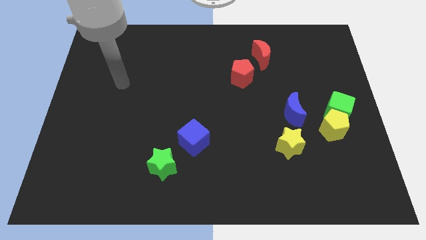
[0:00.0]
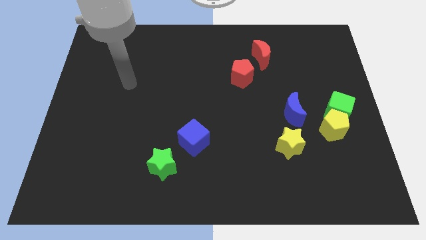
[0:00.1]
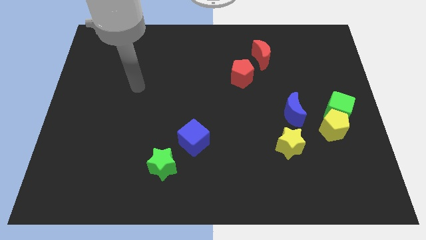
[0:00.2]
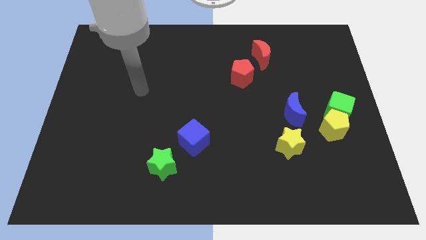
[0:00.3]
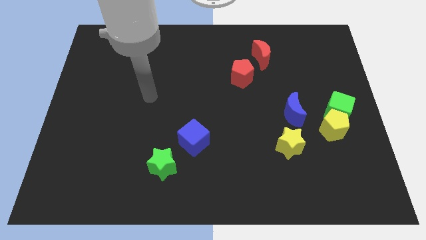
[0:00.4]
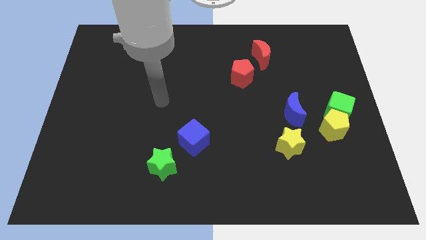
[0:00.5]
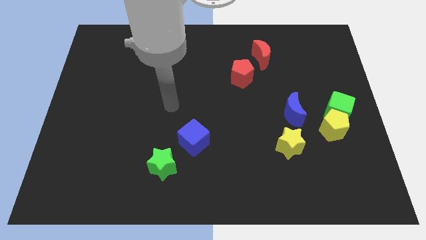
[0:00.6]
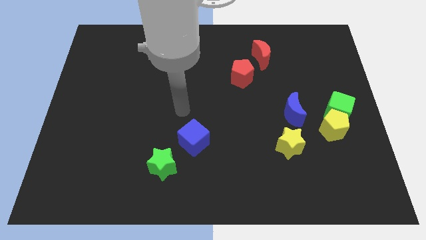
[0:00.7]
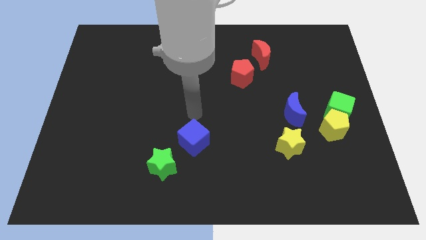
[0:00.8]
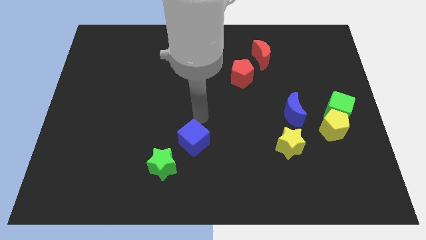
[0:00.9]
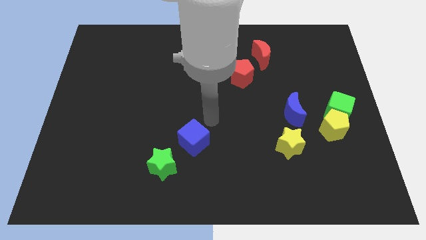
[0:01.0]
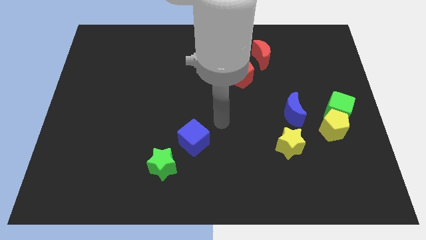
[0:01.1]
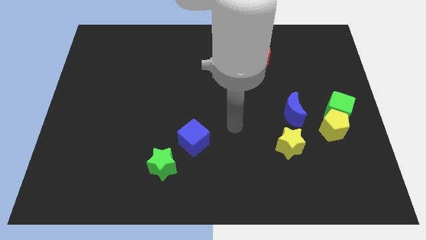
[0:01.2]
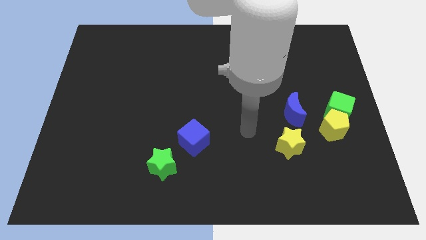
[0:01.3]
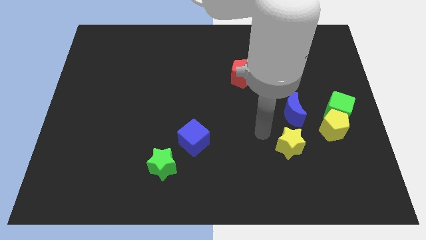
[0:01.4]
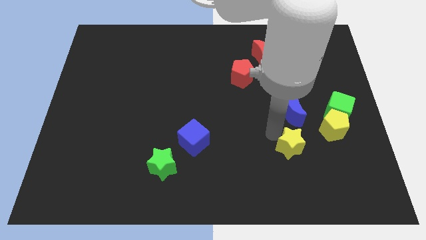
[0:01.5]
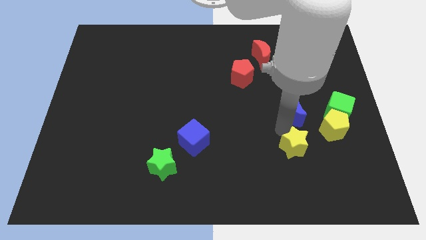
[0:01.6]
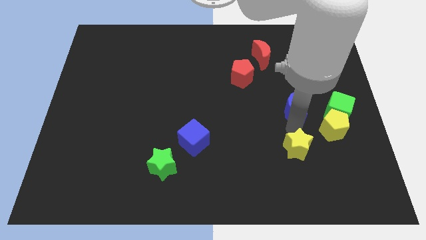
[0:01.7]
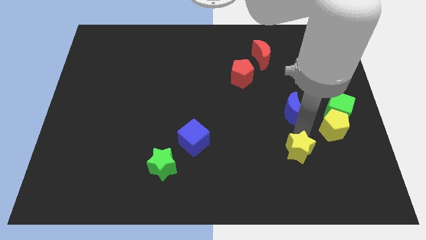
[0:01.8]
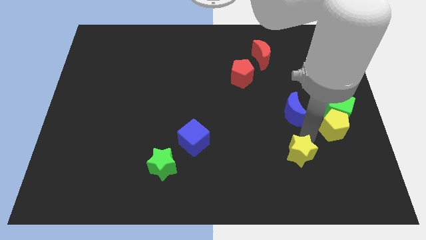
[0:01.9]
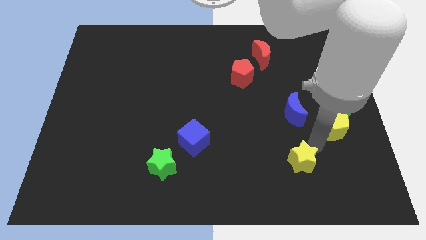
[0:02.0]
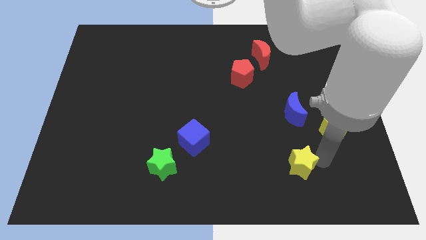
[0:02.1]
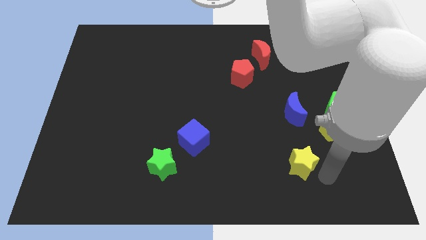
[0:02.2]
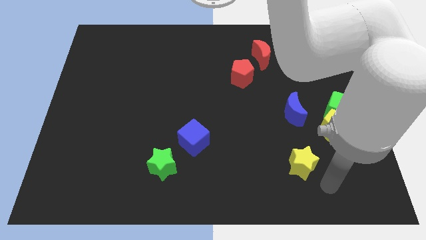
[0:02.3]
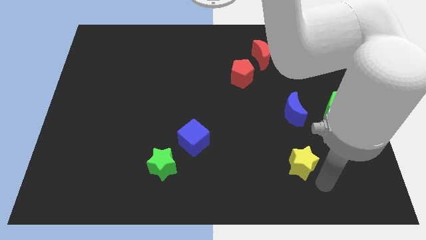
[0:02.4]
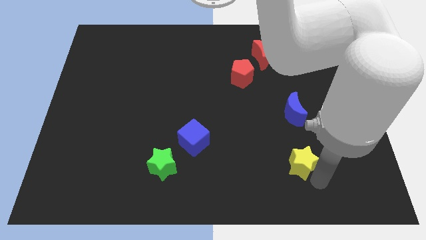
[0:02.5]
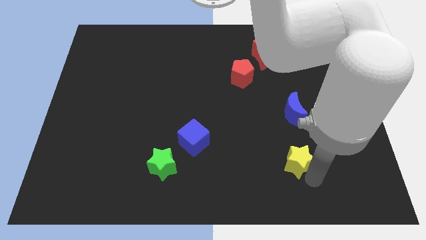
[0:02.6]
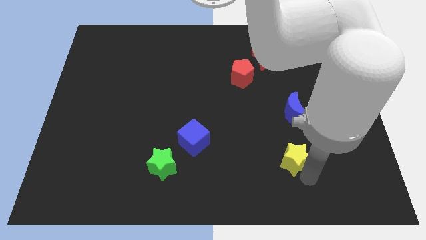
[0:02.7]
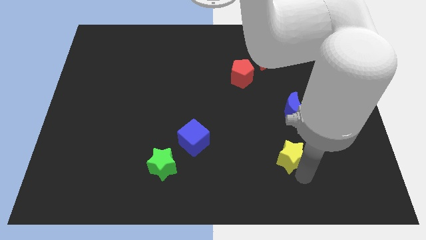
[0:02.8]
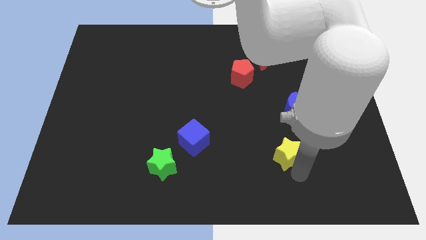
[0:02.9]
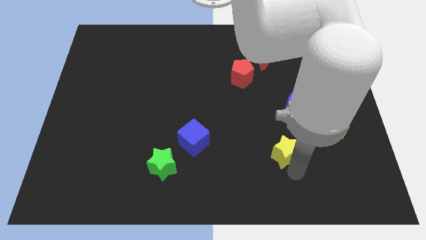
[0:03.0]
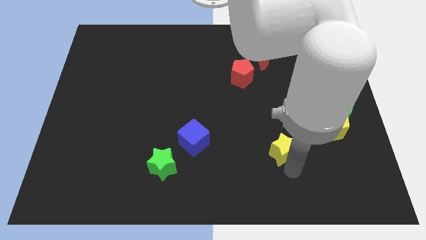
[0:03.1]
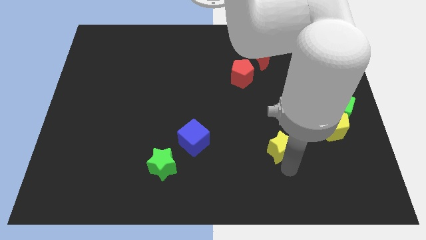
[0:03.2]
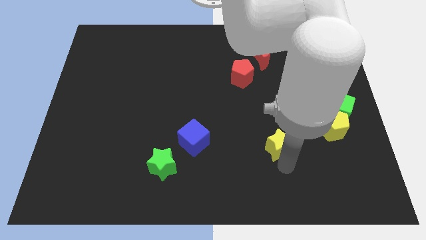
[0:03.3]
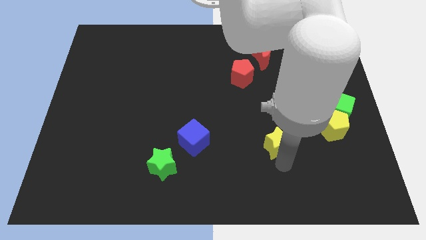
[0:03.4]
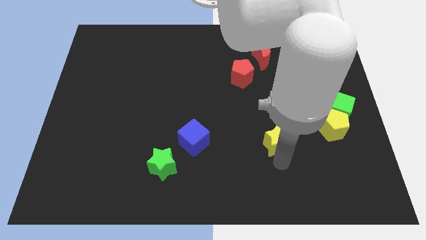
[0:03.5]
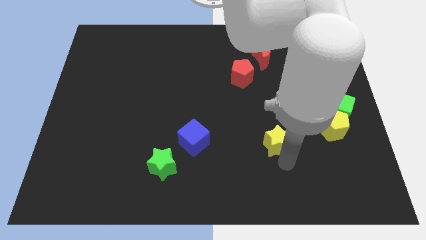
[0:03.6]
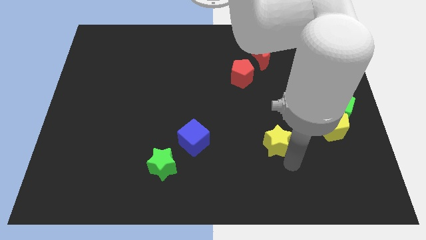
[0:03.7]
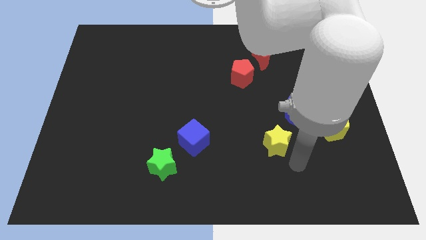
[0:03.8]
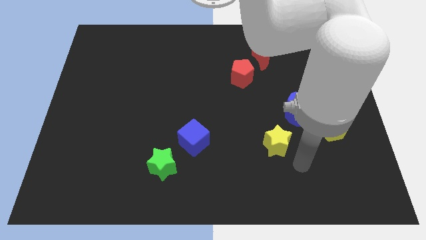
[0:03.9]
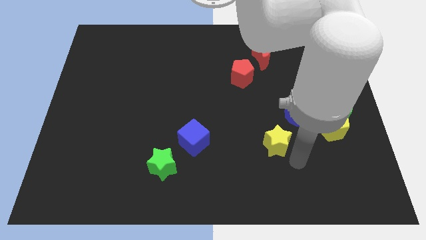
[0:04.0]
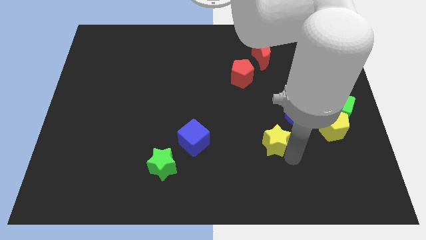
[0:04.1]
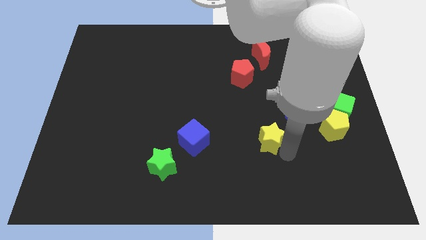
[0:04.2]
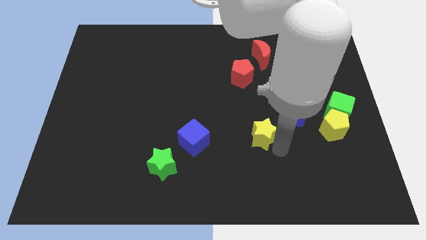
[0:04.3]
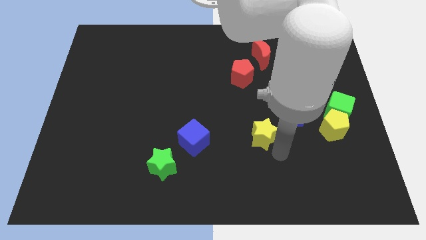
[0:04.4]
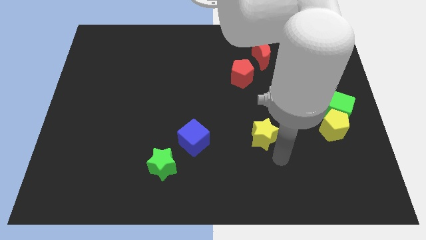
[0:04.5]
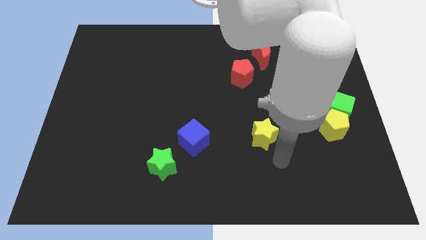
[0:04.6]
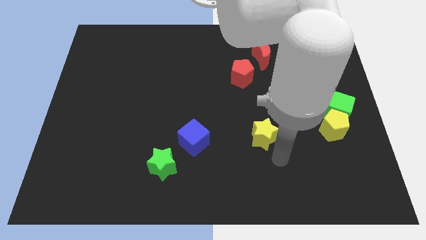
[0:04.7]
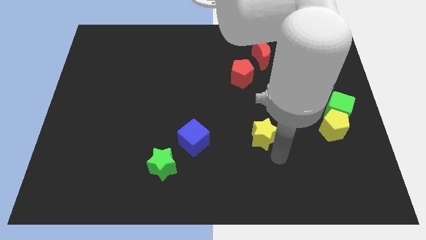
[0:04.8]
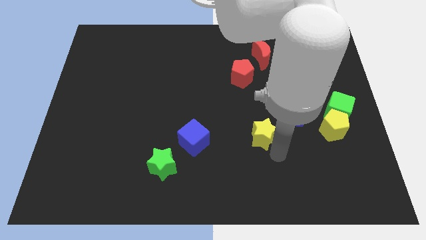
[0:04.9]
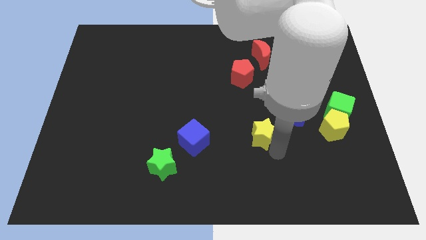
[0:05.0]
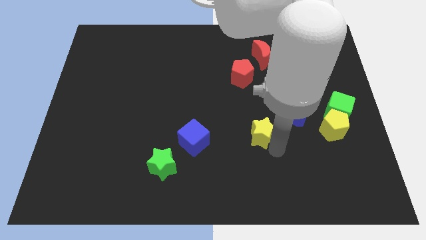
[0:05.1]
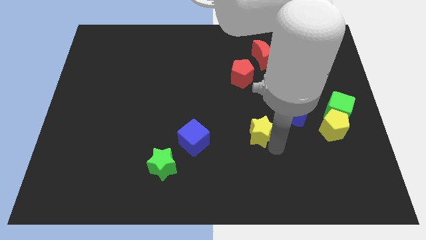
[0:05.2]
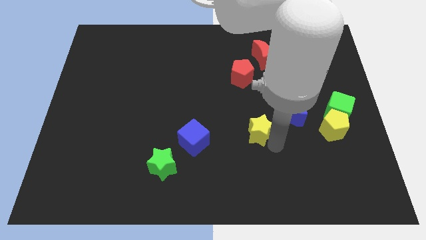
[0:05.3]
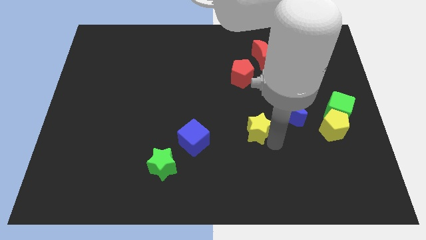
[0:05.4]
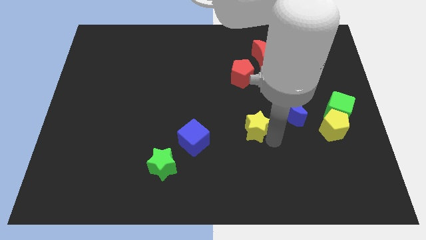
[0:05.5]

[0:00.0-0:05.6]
slide the yellow star up and to the left diagonally a bit

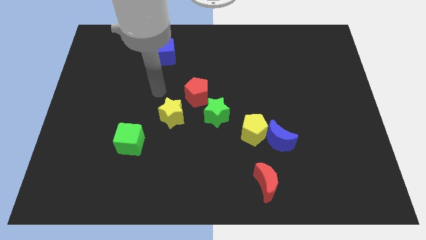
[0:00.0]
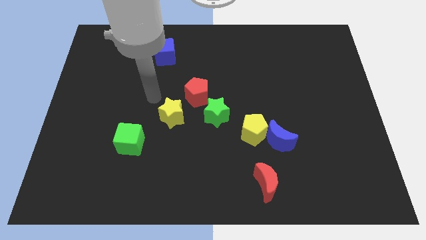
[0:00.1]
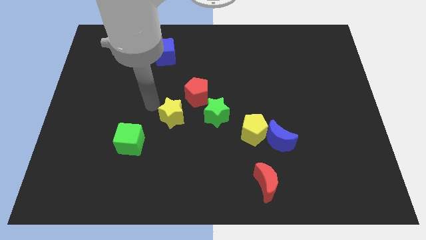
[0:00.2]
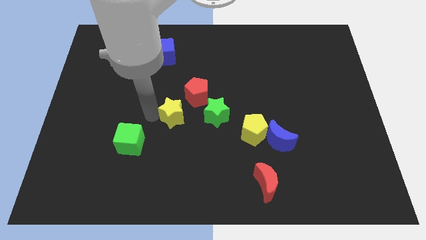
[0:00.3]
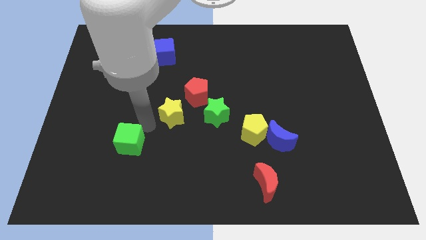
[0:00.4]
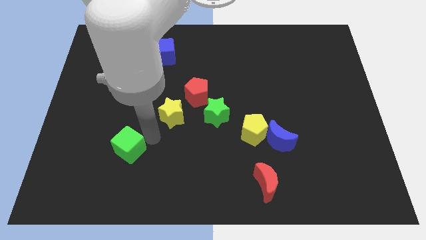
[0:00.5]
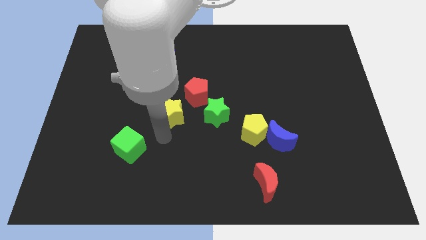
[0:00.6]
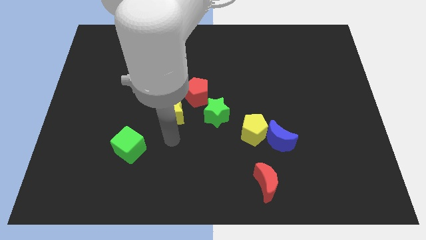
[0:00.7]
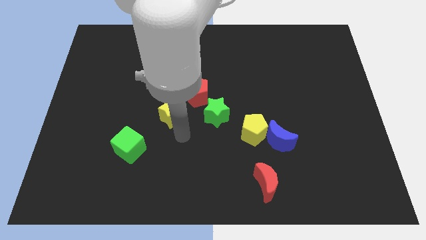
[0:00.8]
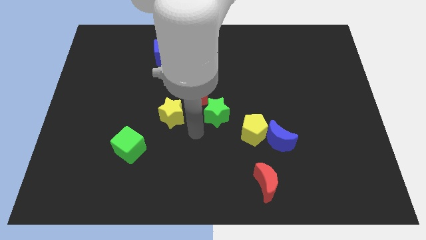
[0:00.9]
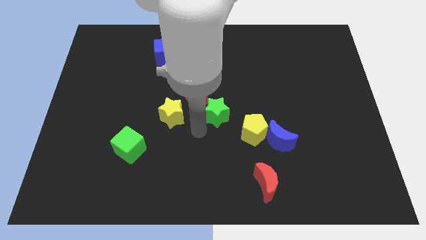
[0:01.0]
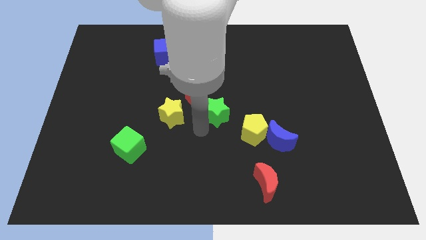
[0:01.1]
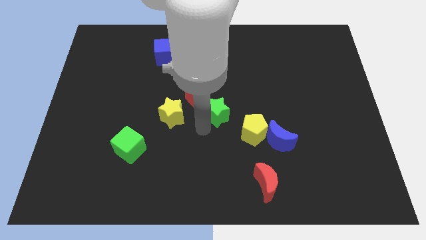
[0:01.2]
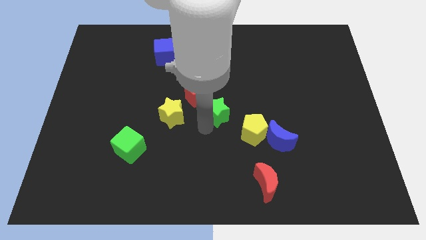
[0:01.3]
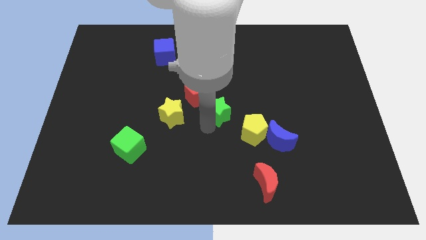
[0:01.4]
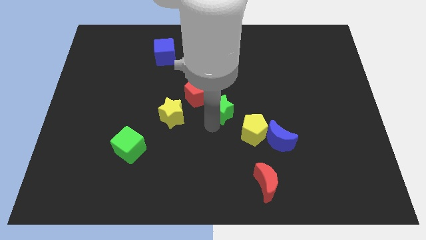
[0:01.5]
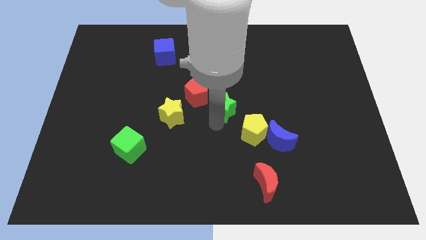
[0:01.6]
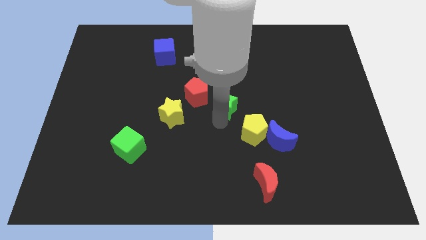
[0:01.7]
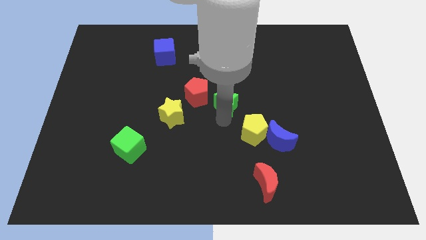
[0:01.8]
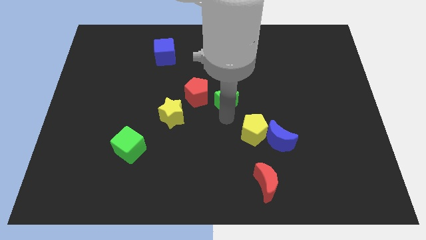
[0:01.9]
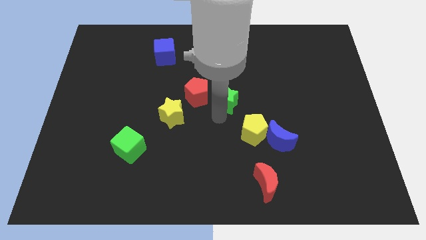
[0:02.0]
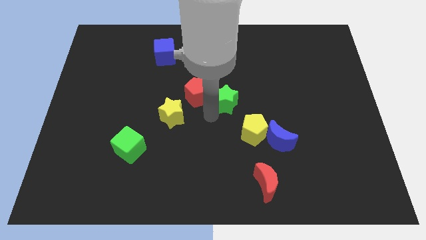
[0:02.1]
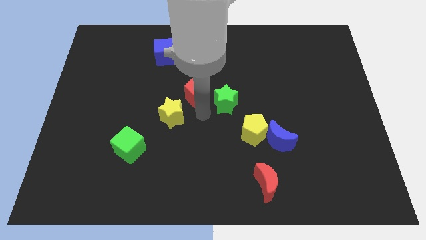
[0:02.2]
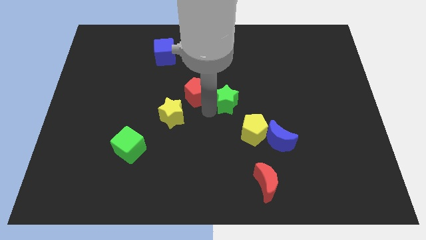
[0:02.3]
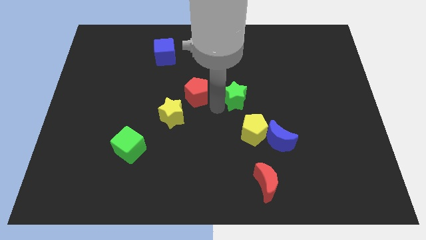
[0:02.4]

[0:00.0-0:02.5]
slide the green star upwards and to the right a bit
